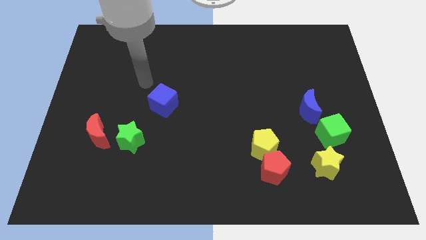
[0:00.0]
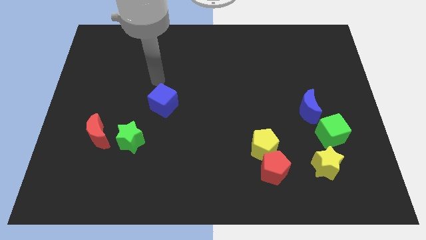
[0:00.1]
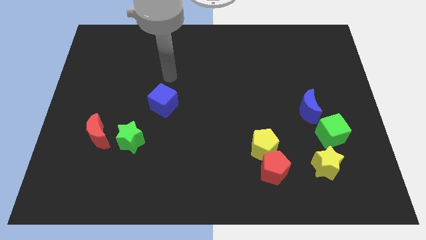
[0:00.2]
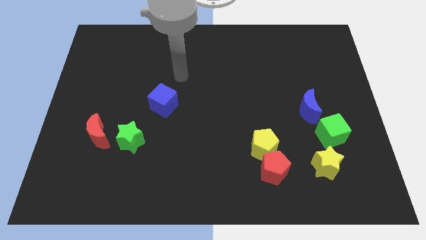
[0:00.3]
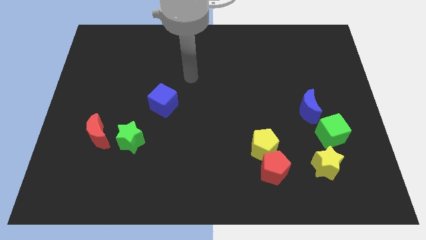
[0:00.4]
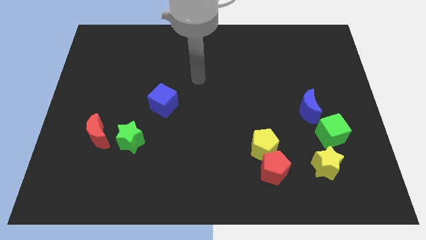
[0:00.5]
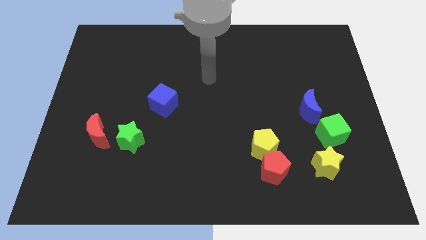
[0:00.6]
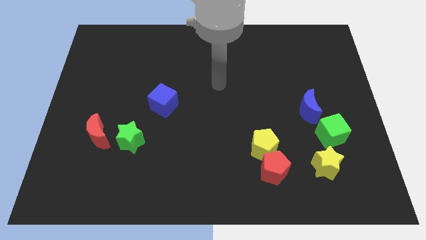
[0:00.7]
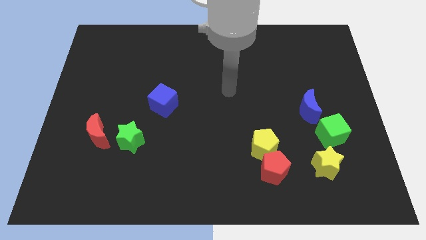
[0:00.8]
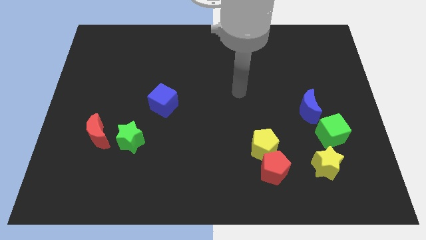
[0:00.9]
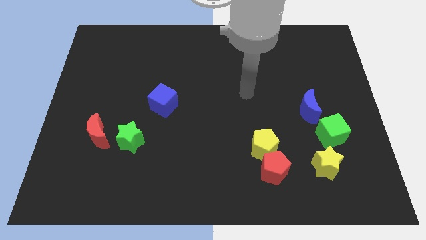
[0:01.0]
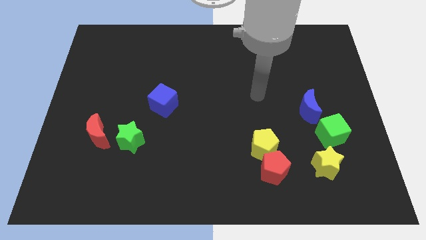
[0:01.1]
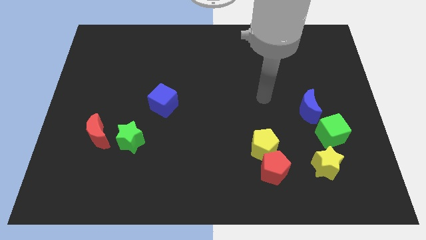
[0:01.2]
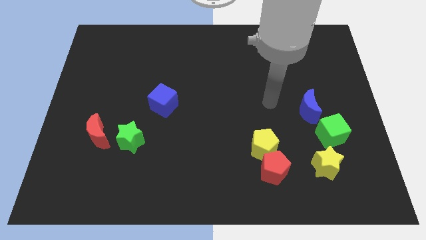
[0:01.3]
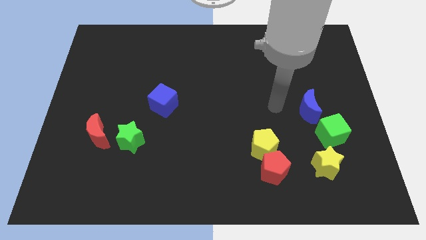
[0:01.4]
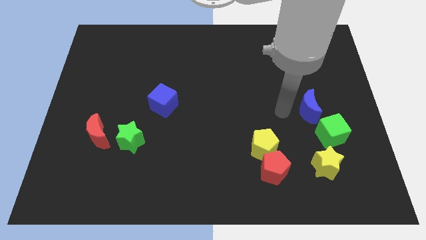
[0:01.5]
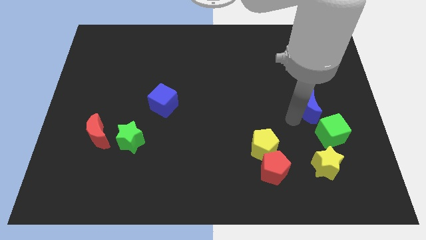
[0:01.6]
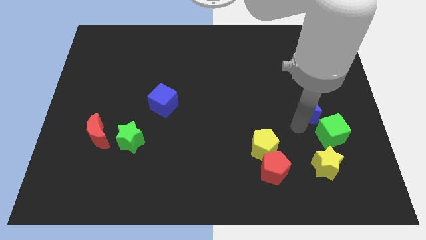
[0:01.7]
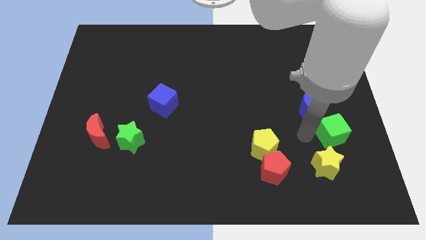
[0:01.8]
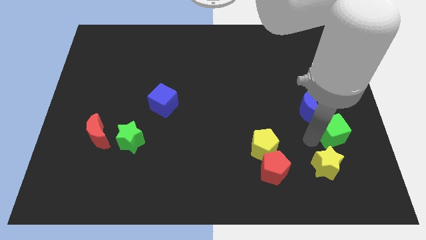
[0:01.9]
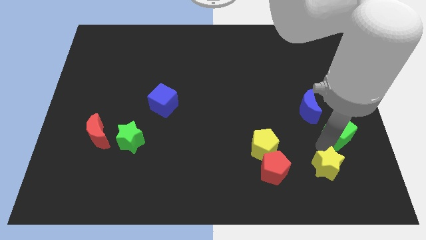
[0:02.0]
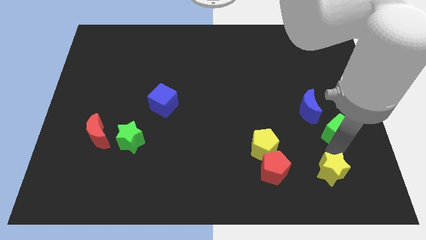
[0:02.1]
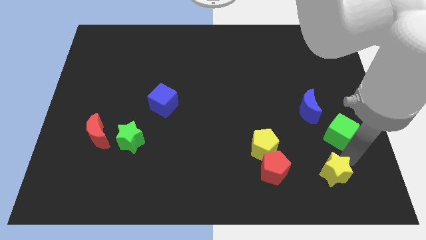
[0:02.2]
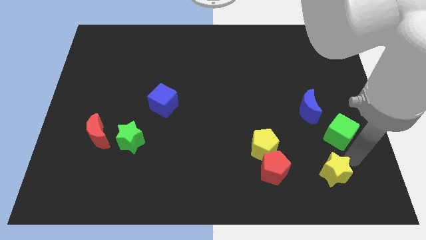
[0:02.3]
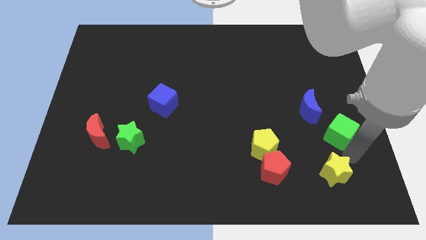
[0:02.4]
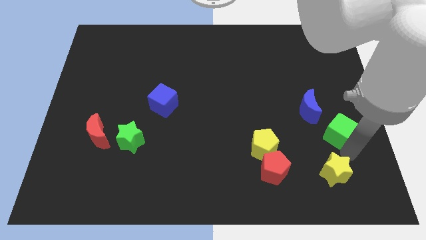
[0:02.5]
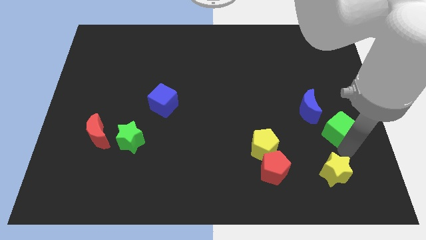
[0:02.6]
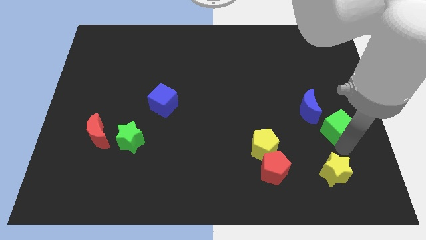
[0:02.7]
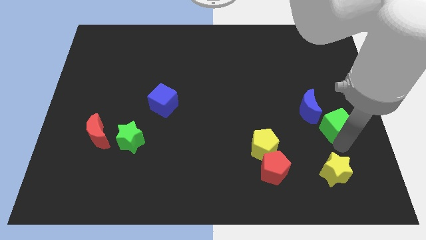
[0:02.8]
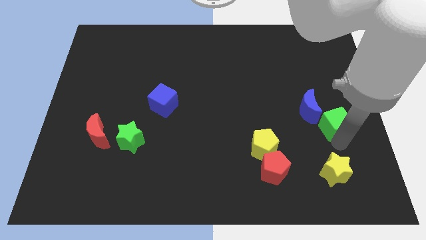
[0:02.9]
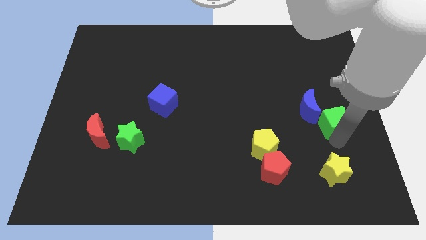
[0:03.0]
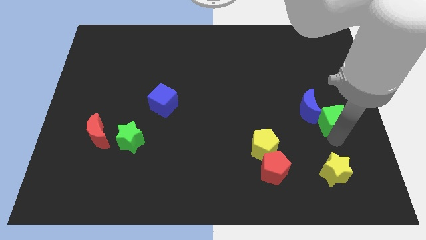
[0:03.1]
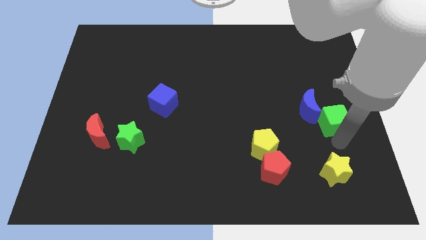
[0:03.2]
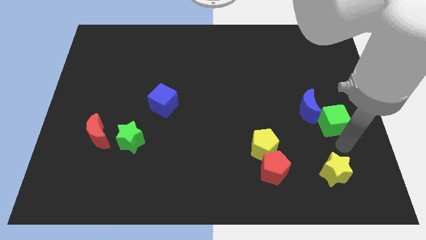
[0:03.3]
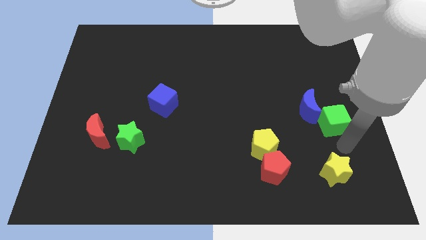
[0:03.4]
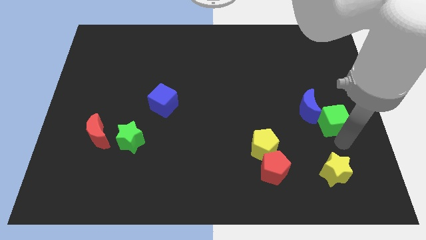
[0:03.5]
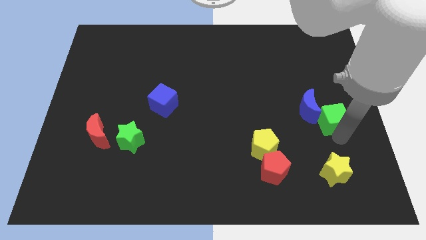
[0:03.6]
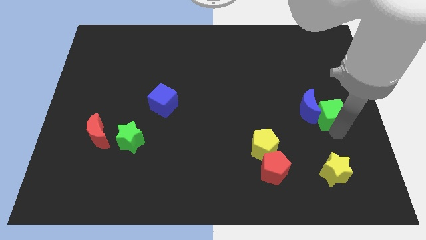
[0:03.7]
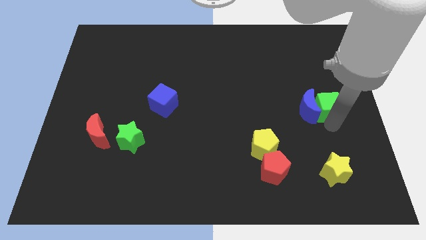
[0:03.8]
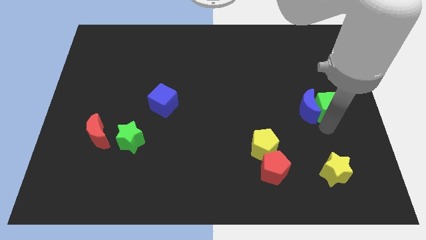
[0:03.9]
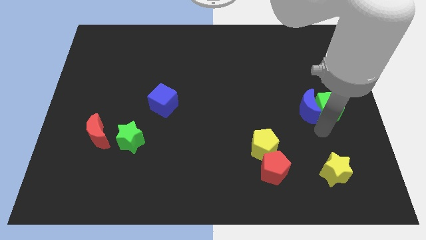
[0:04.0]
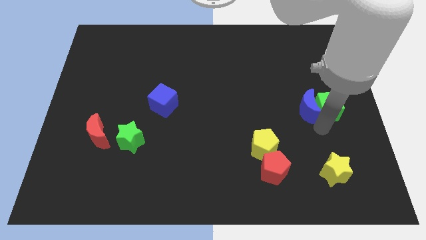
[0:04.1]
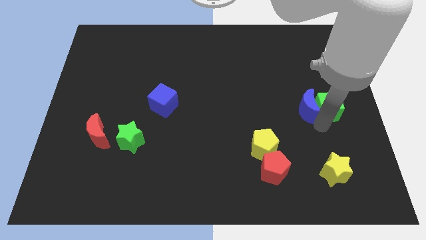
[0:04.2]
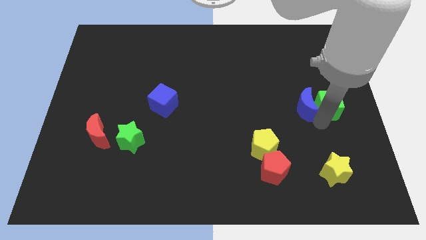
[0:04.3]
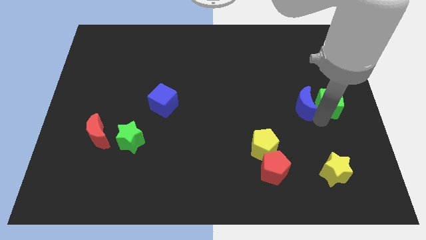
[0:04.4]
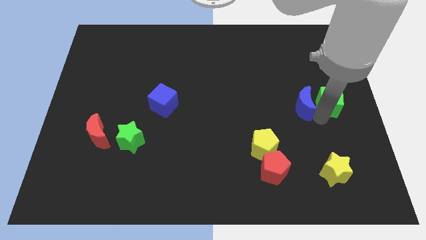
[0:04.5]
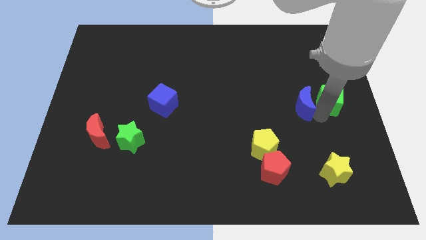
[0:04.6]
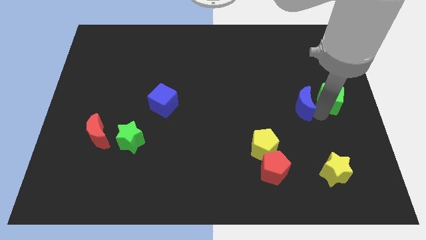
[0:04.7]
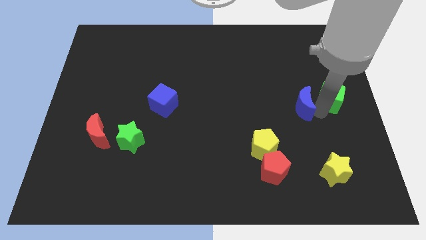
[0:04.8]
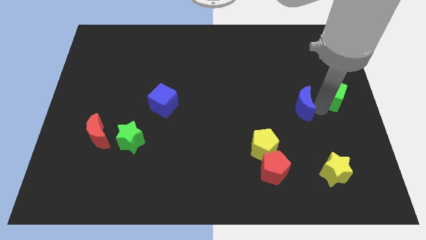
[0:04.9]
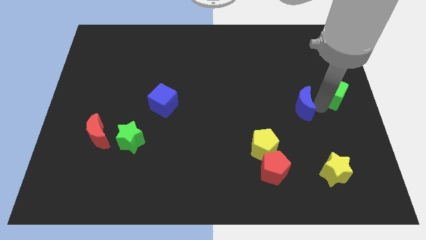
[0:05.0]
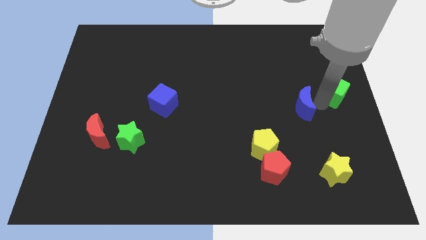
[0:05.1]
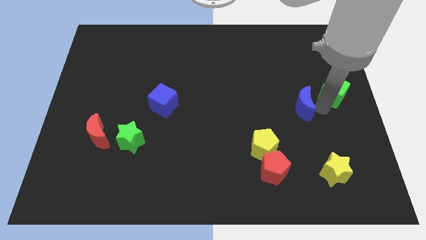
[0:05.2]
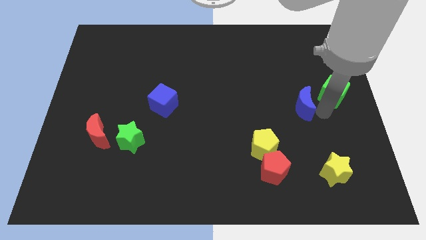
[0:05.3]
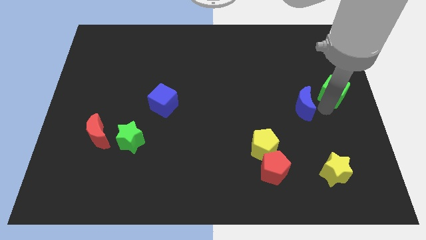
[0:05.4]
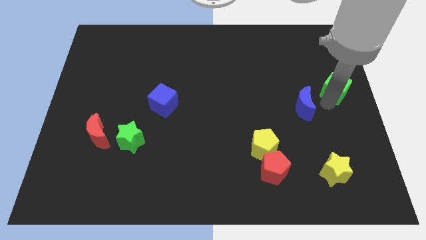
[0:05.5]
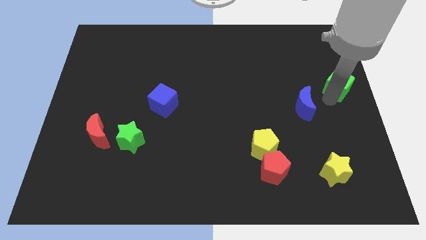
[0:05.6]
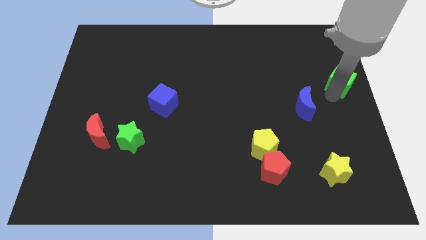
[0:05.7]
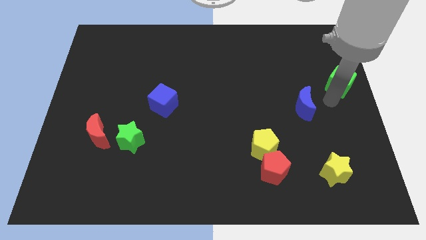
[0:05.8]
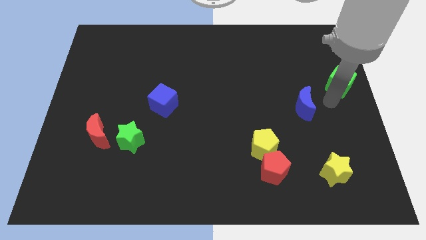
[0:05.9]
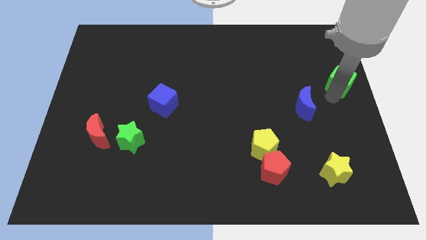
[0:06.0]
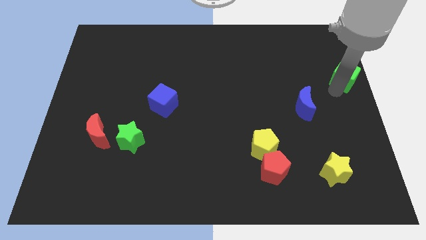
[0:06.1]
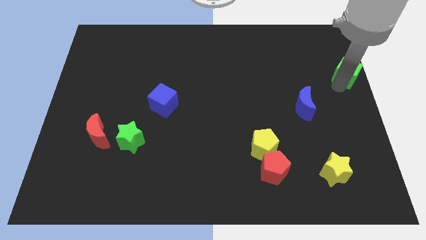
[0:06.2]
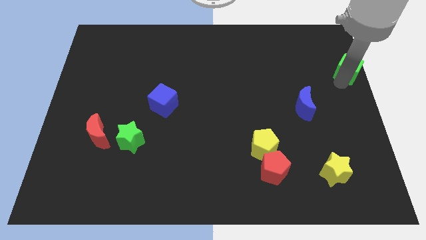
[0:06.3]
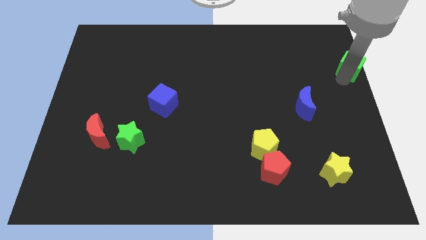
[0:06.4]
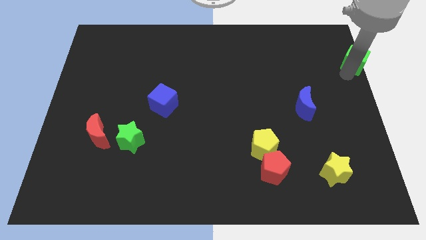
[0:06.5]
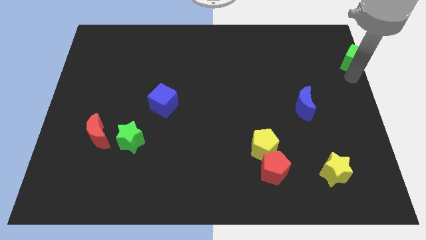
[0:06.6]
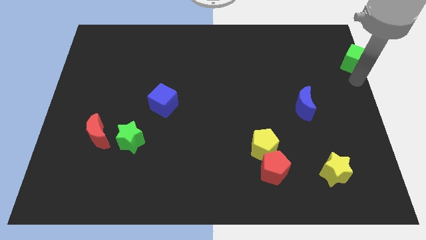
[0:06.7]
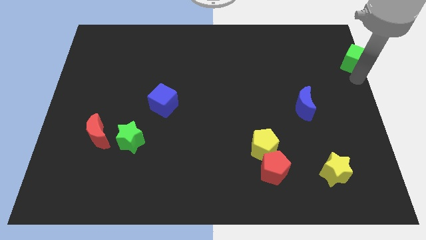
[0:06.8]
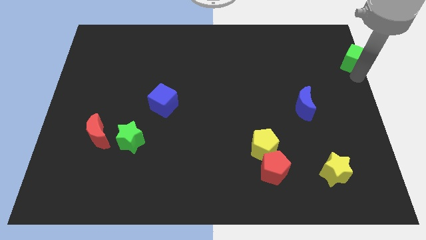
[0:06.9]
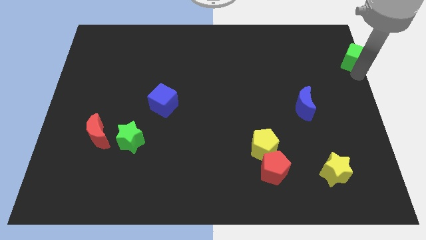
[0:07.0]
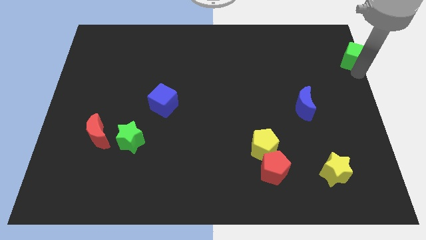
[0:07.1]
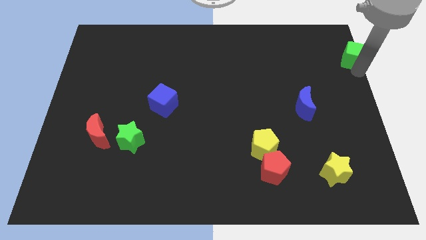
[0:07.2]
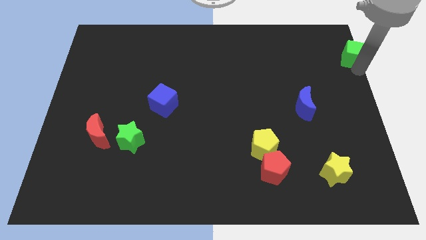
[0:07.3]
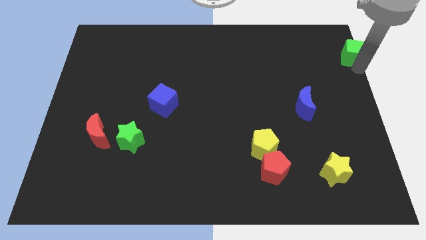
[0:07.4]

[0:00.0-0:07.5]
push the green cube to the top right of the board
